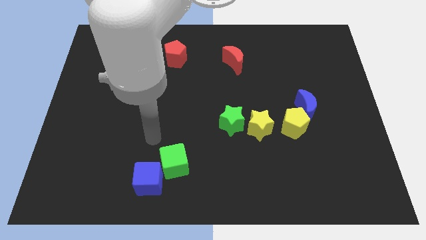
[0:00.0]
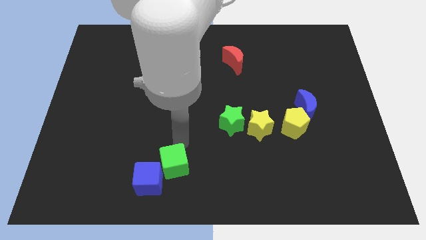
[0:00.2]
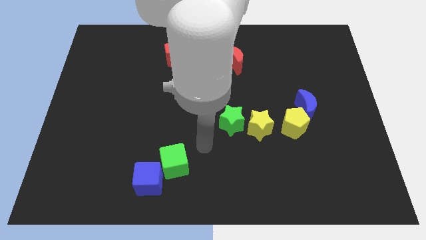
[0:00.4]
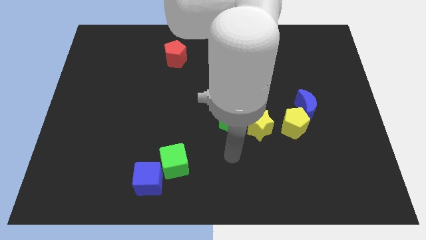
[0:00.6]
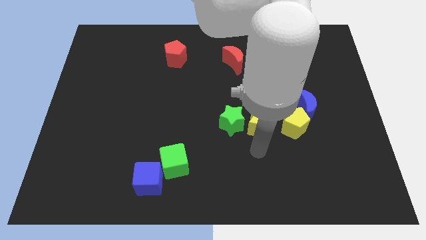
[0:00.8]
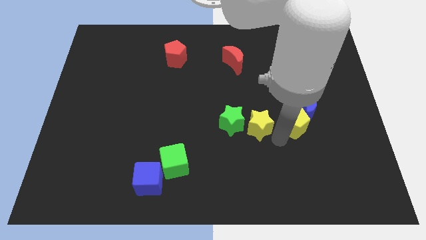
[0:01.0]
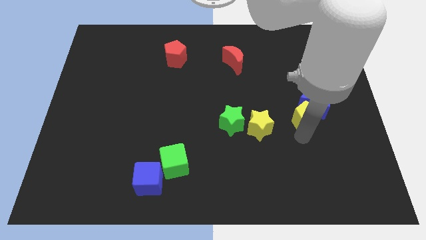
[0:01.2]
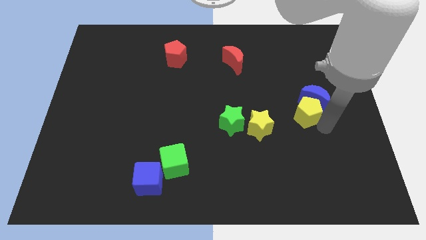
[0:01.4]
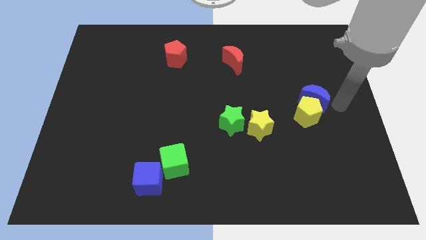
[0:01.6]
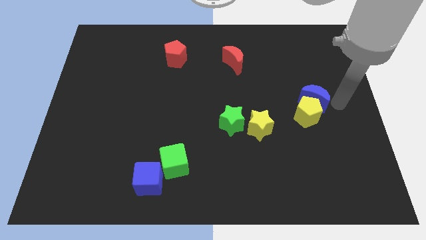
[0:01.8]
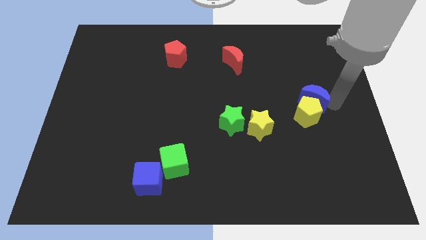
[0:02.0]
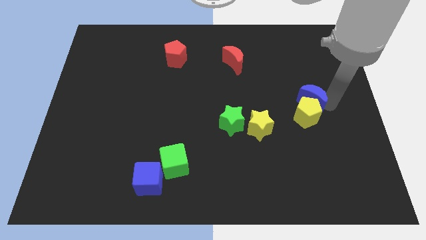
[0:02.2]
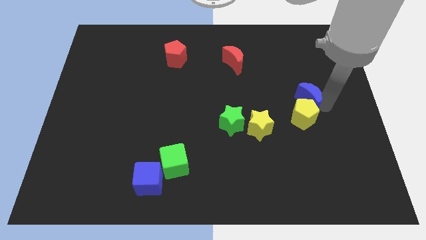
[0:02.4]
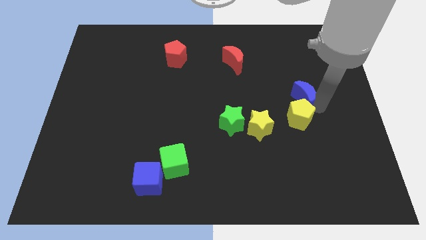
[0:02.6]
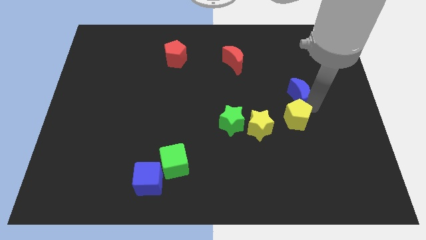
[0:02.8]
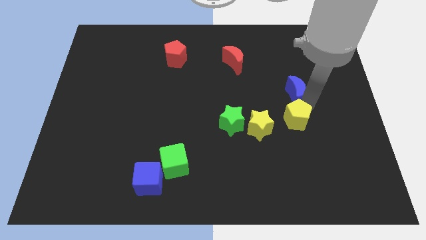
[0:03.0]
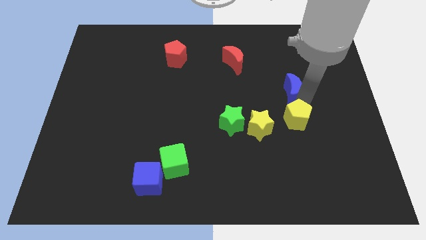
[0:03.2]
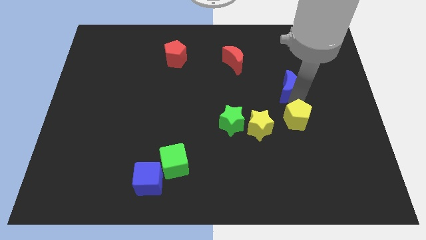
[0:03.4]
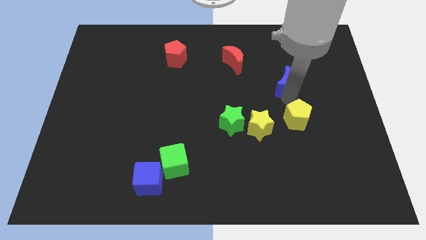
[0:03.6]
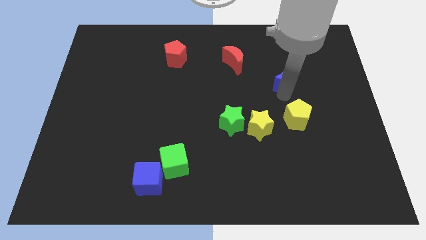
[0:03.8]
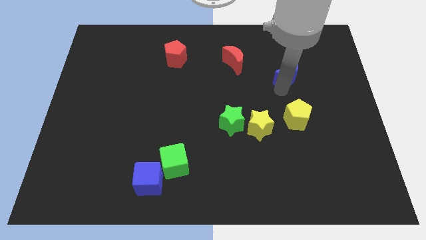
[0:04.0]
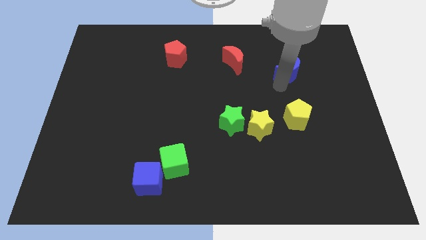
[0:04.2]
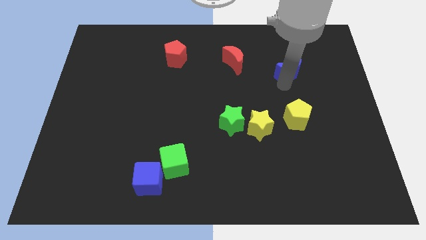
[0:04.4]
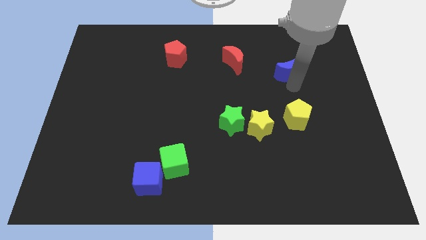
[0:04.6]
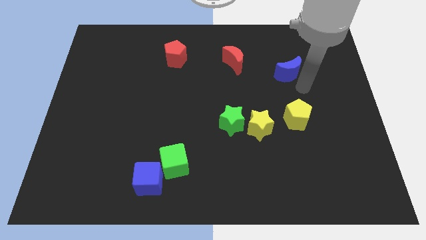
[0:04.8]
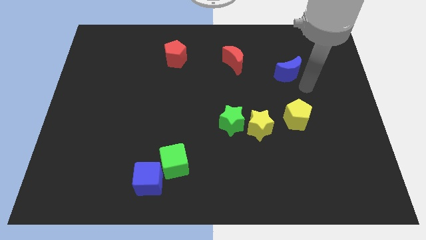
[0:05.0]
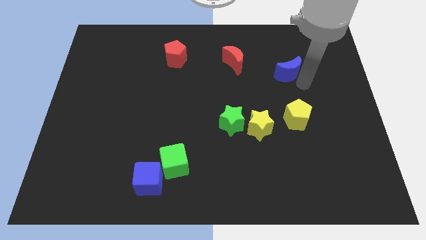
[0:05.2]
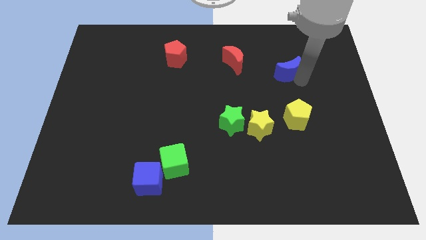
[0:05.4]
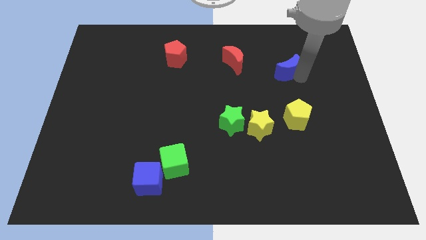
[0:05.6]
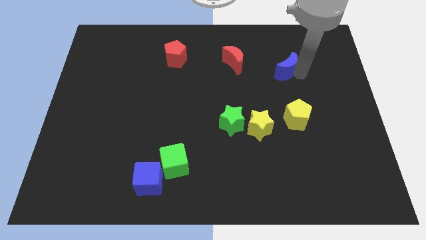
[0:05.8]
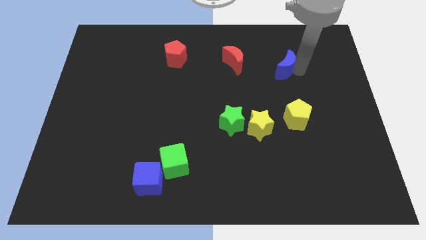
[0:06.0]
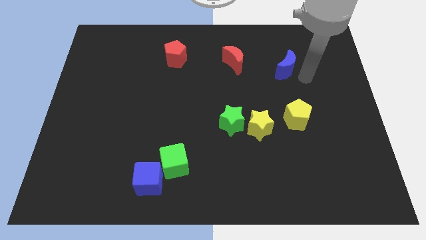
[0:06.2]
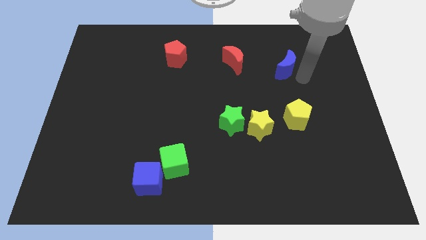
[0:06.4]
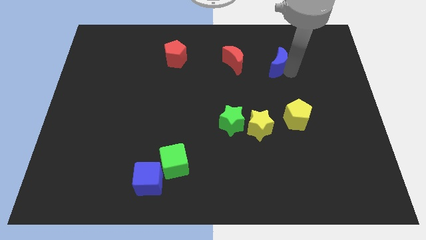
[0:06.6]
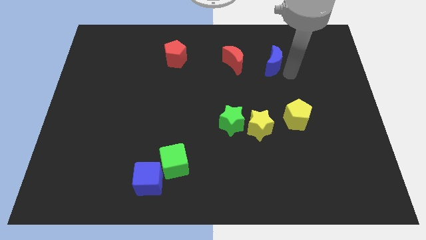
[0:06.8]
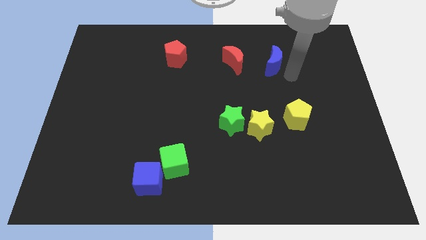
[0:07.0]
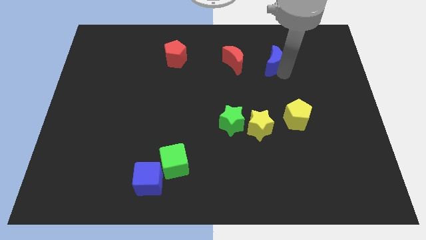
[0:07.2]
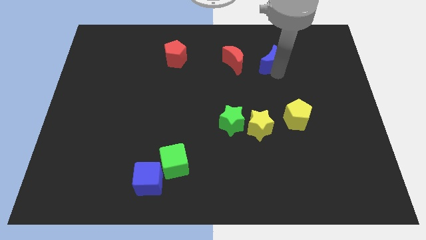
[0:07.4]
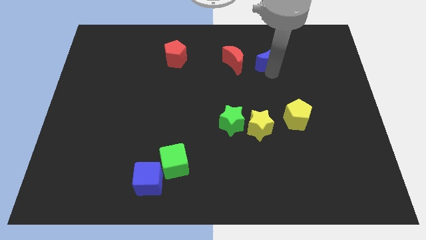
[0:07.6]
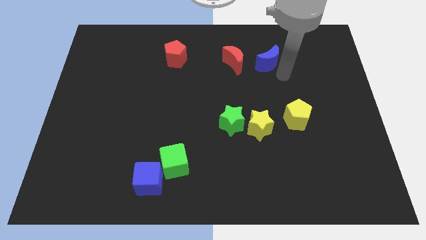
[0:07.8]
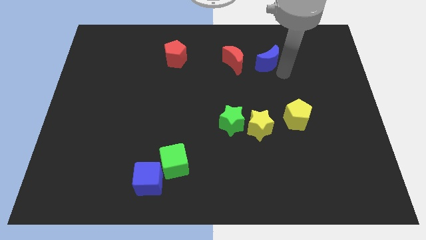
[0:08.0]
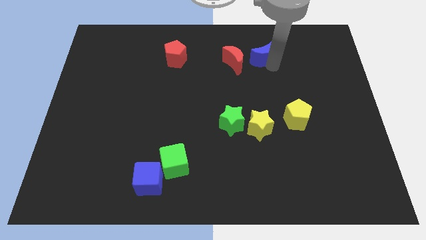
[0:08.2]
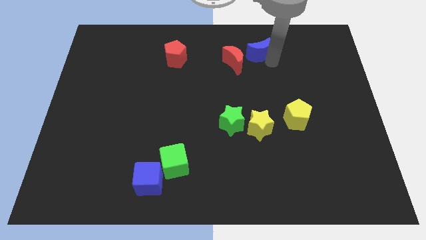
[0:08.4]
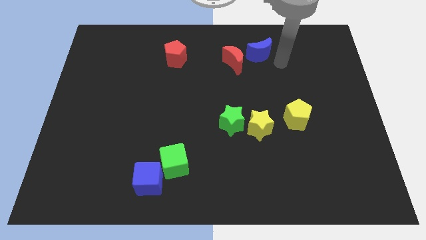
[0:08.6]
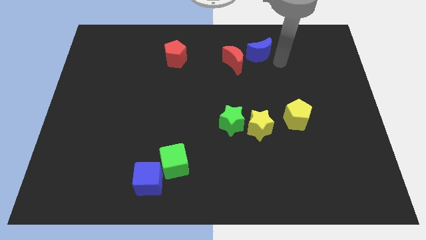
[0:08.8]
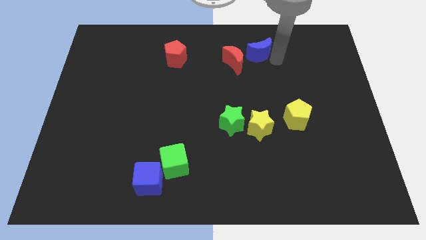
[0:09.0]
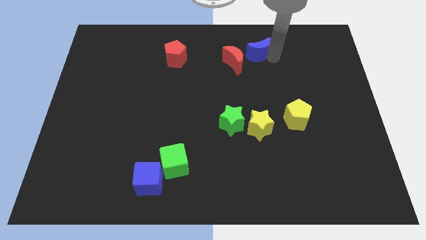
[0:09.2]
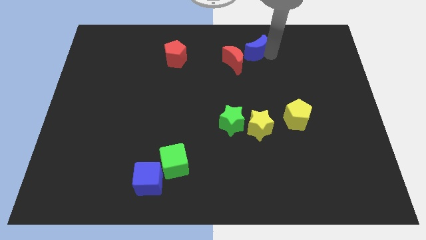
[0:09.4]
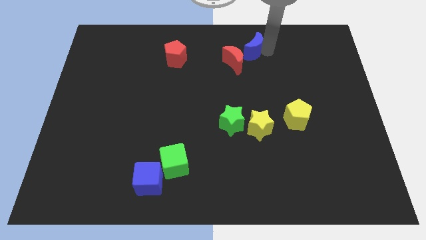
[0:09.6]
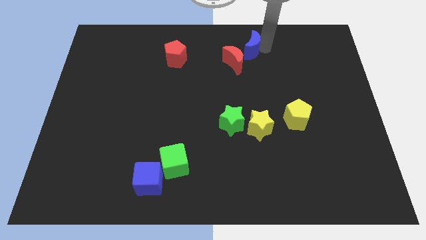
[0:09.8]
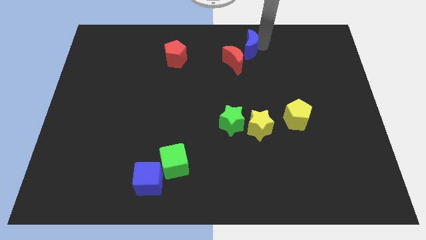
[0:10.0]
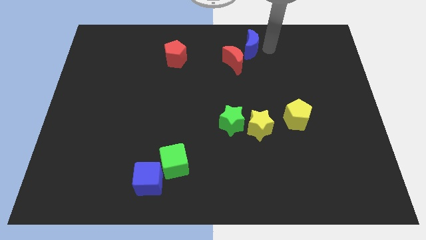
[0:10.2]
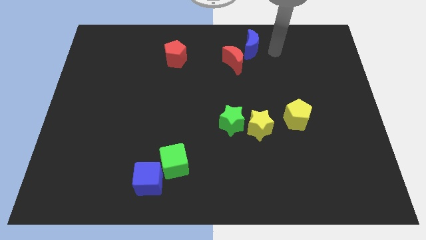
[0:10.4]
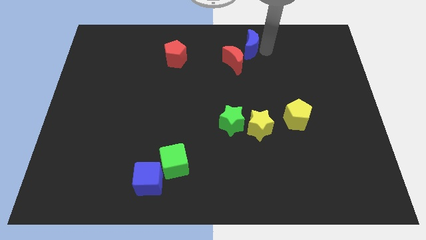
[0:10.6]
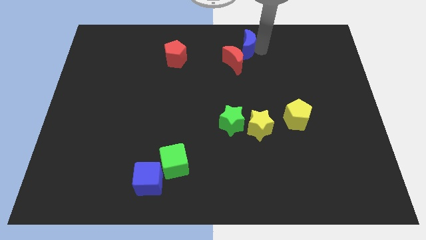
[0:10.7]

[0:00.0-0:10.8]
push the blue moon to the top side

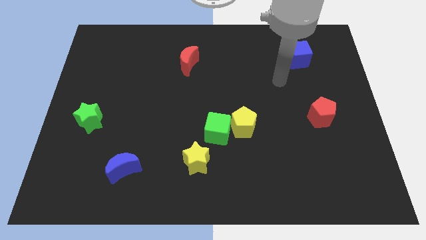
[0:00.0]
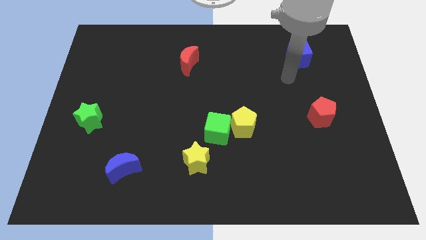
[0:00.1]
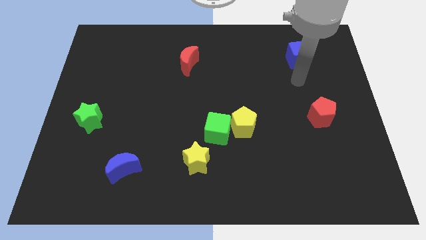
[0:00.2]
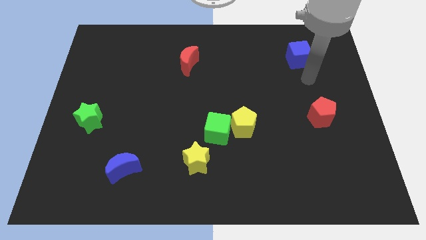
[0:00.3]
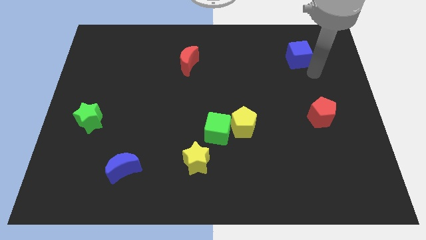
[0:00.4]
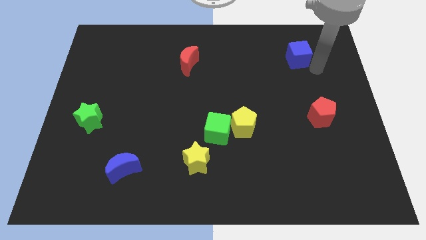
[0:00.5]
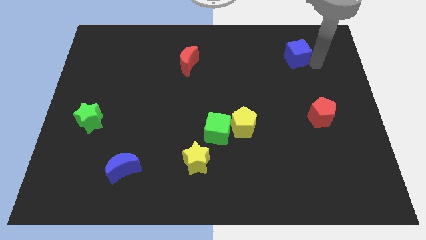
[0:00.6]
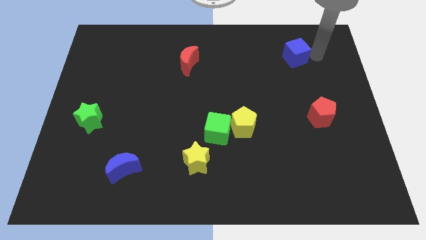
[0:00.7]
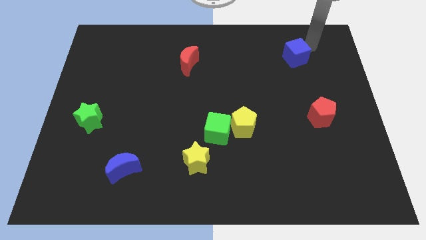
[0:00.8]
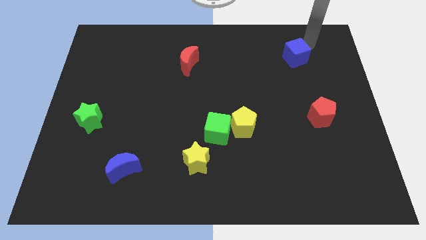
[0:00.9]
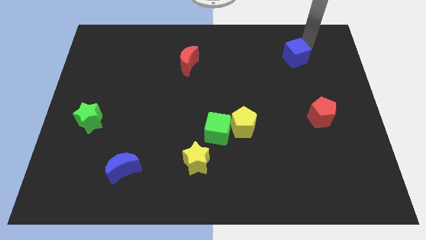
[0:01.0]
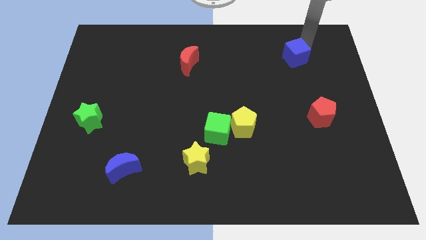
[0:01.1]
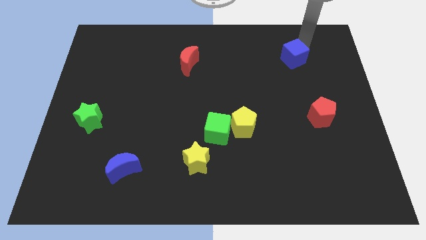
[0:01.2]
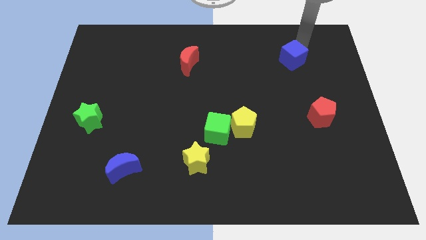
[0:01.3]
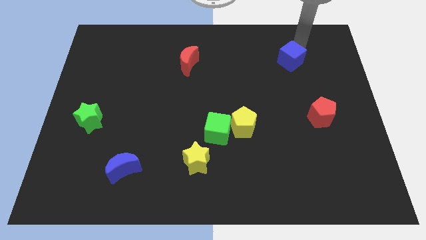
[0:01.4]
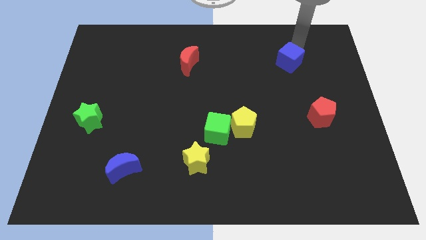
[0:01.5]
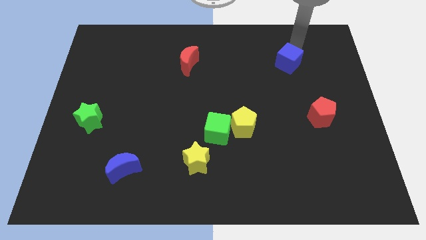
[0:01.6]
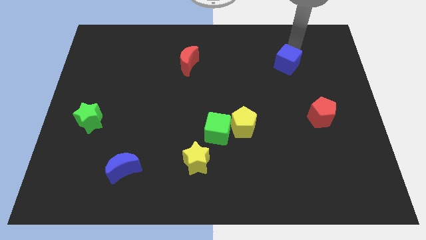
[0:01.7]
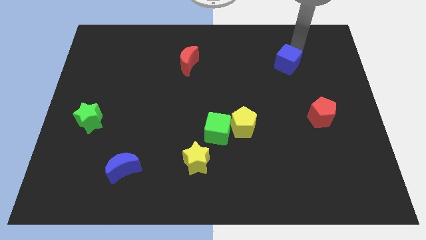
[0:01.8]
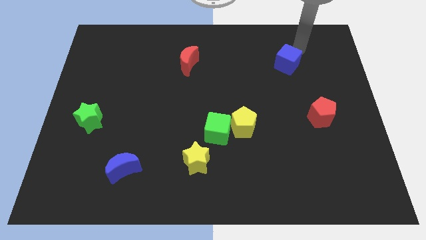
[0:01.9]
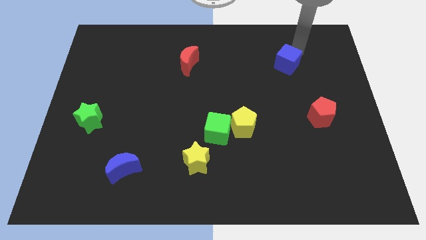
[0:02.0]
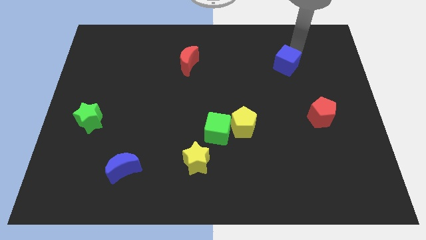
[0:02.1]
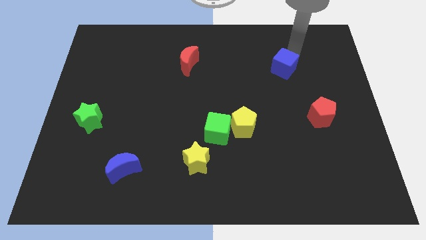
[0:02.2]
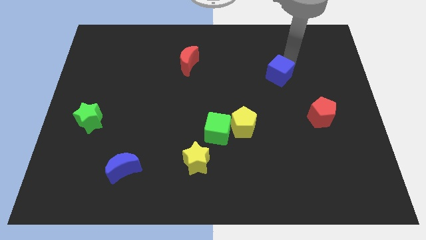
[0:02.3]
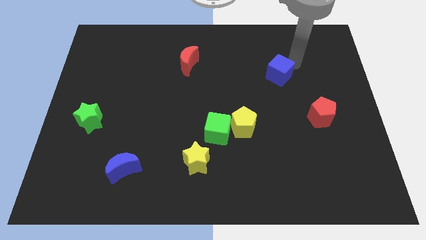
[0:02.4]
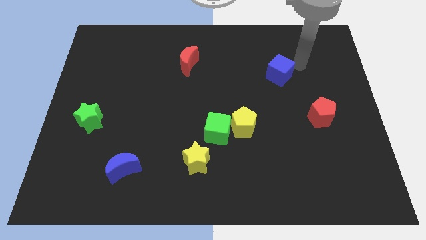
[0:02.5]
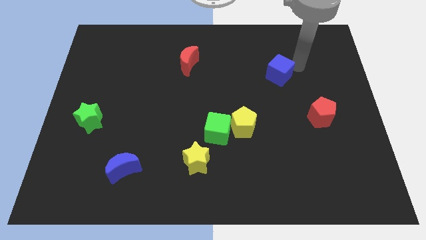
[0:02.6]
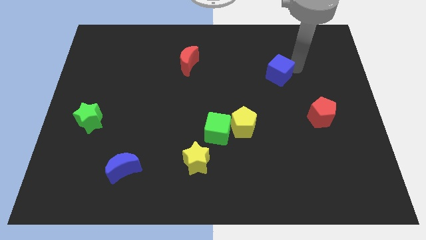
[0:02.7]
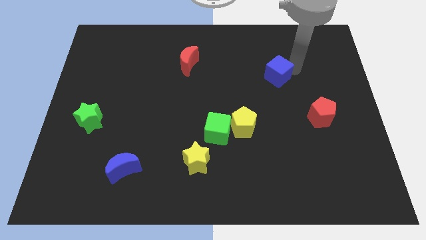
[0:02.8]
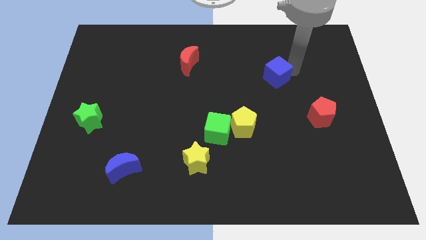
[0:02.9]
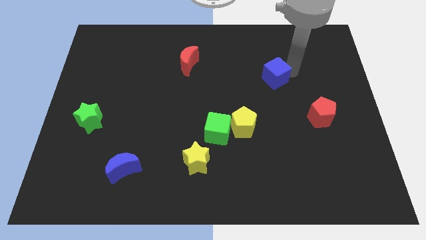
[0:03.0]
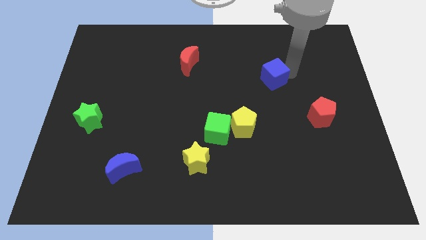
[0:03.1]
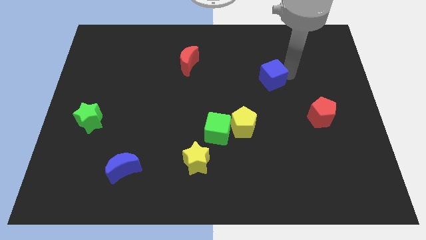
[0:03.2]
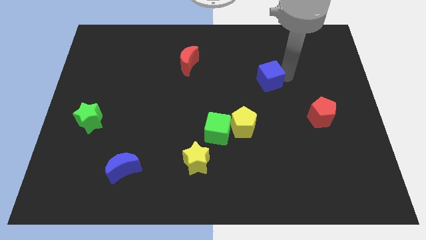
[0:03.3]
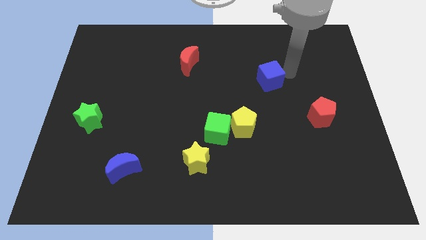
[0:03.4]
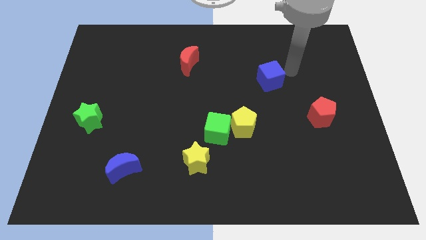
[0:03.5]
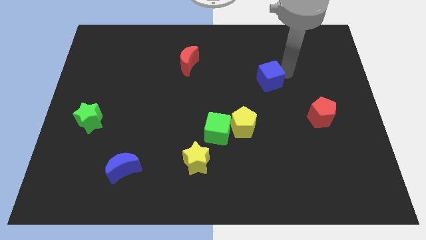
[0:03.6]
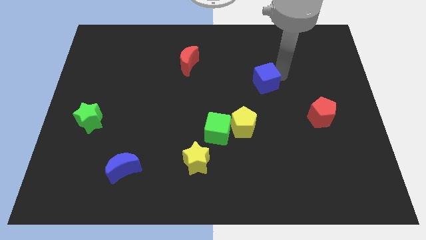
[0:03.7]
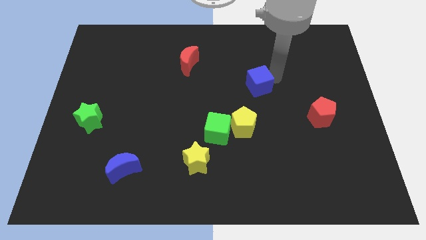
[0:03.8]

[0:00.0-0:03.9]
move the blue cube to the middle of the board
